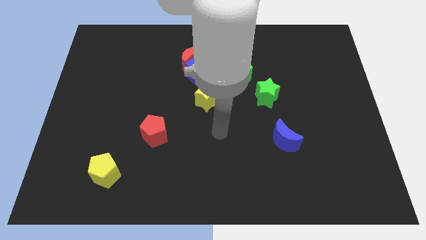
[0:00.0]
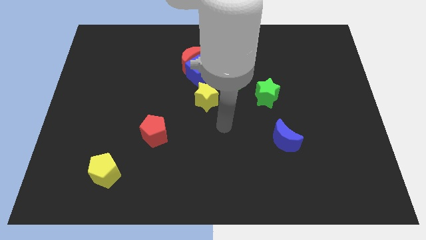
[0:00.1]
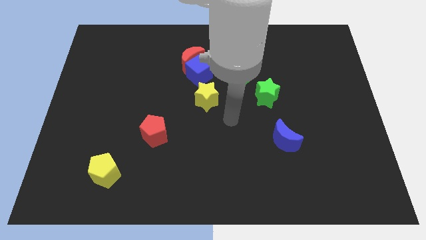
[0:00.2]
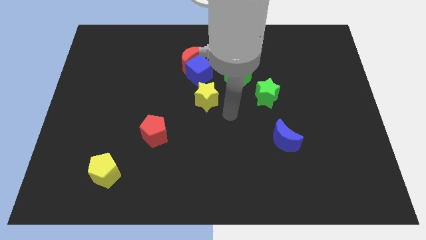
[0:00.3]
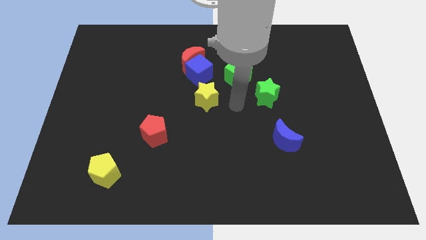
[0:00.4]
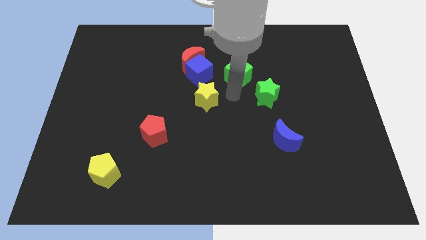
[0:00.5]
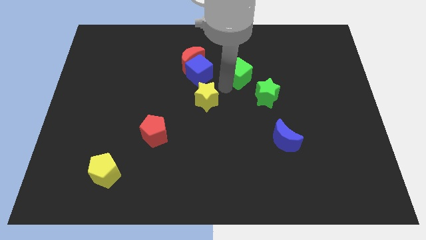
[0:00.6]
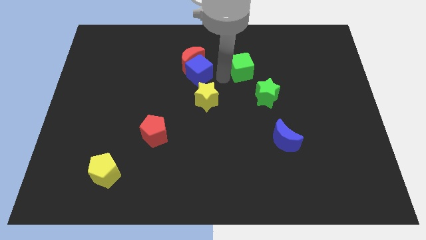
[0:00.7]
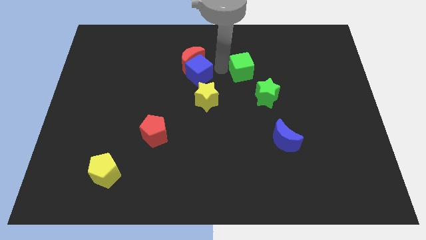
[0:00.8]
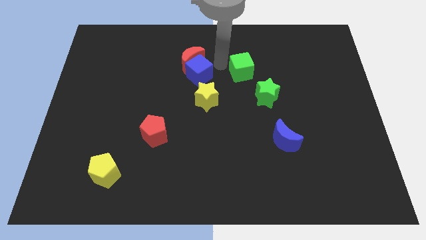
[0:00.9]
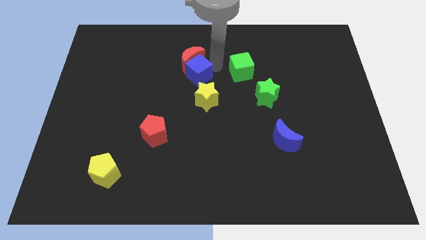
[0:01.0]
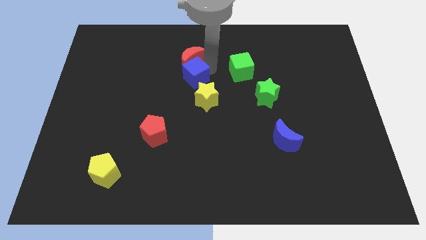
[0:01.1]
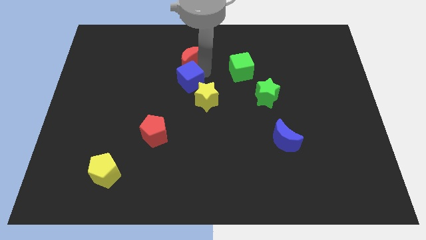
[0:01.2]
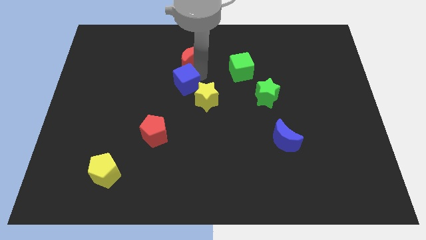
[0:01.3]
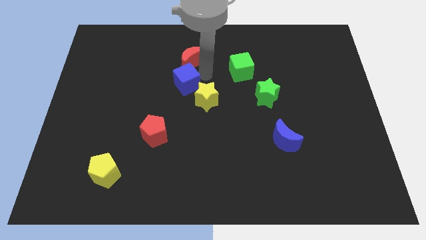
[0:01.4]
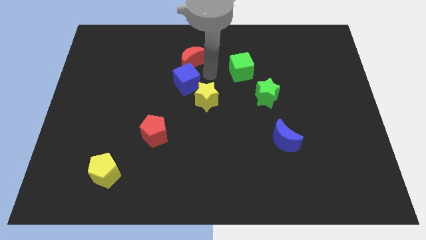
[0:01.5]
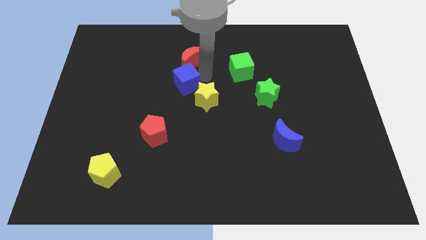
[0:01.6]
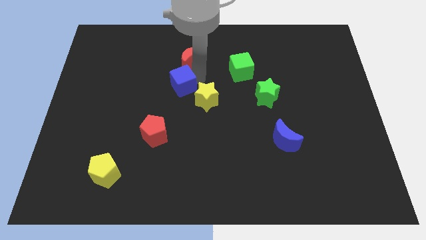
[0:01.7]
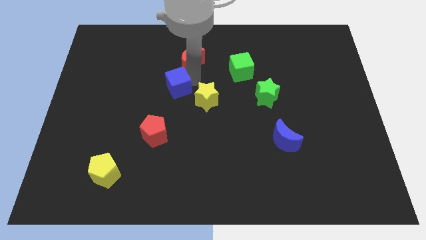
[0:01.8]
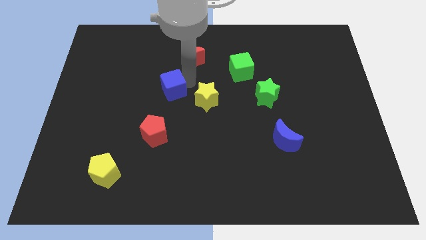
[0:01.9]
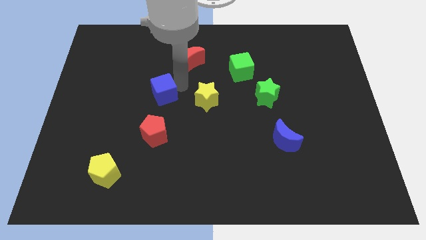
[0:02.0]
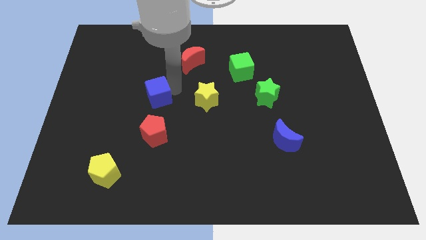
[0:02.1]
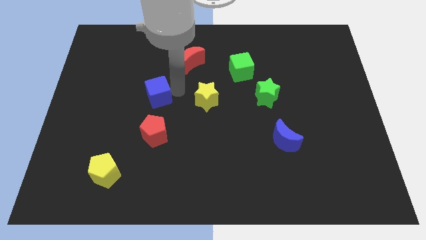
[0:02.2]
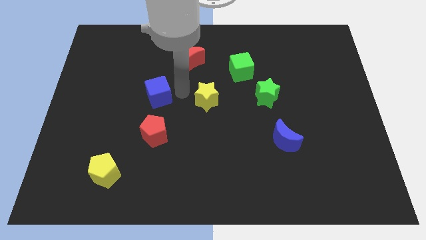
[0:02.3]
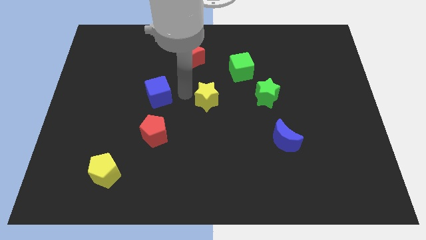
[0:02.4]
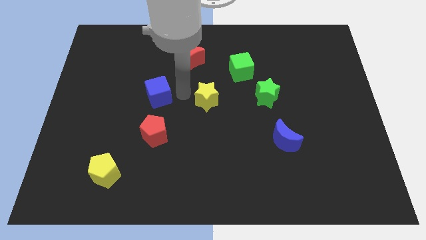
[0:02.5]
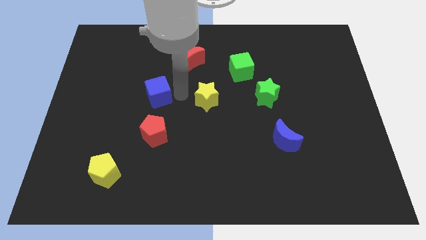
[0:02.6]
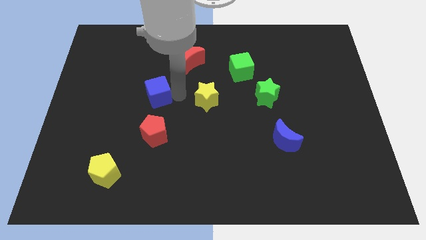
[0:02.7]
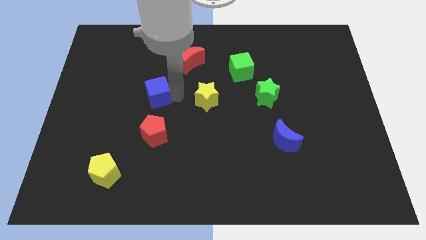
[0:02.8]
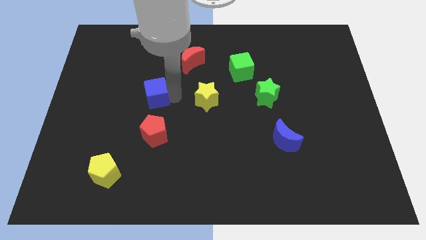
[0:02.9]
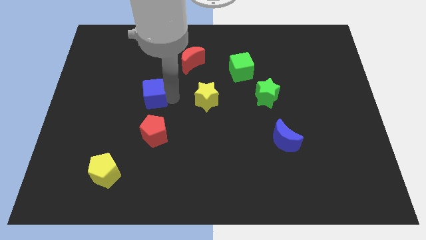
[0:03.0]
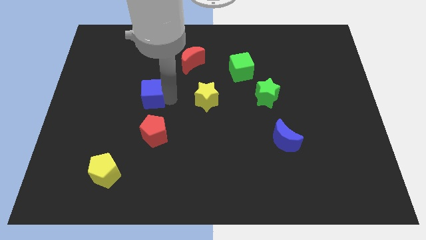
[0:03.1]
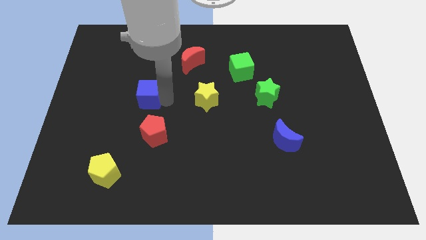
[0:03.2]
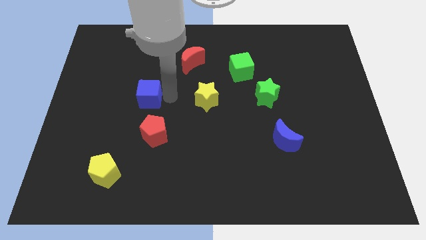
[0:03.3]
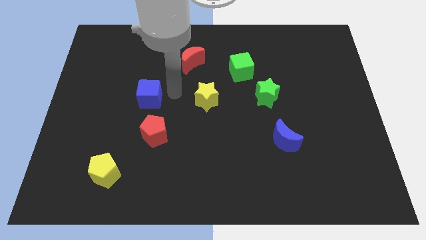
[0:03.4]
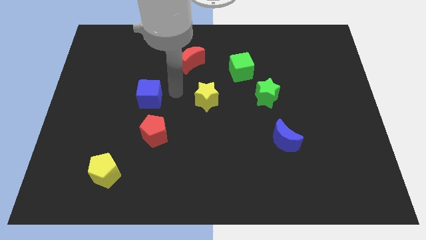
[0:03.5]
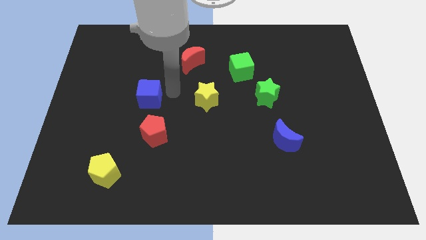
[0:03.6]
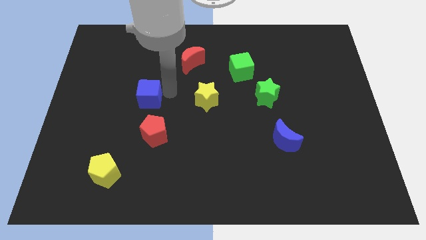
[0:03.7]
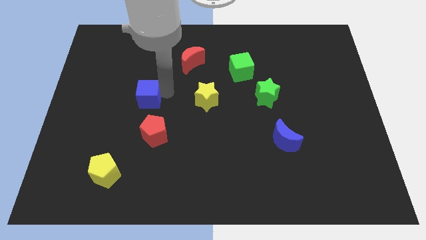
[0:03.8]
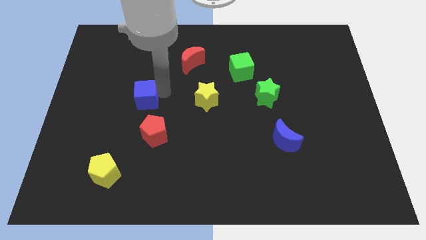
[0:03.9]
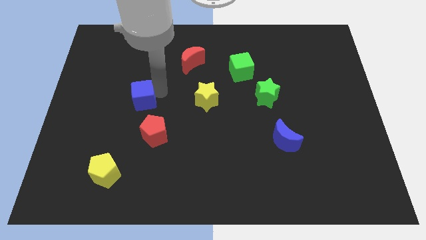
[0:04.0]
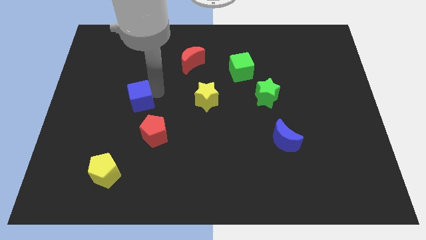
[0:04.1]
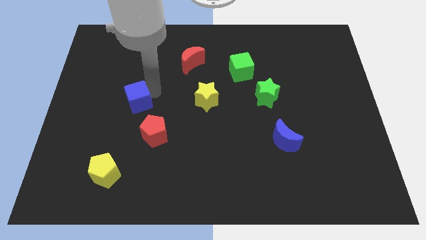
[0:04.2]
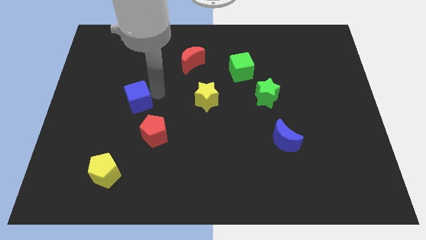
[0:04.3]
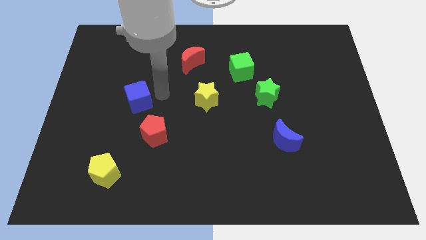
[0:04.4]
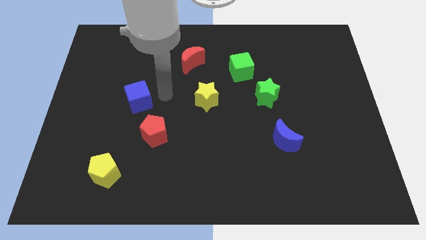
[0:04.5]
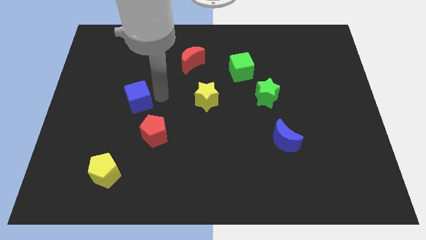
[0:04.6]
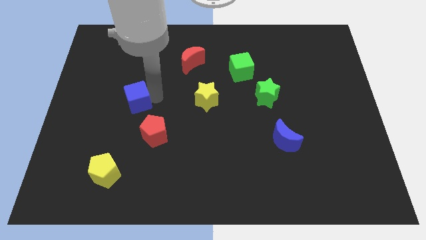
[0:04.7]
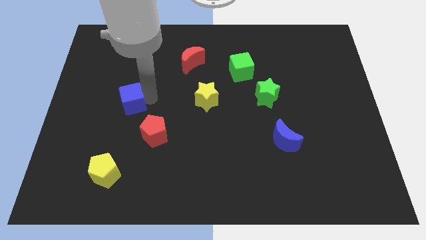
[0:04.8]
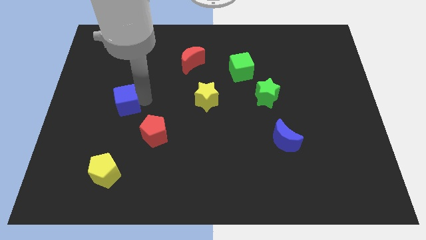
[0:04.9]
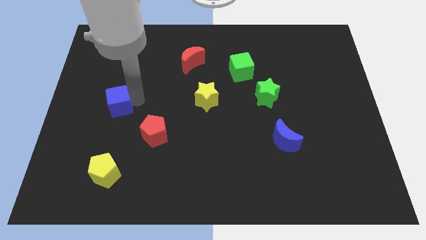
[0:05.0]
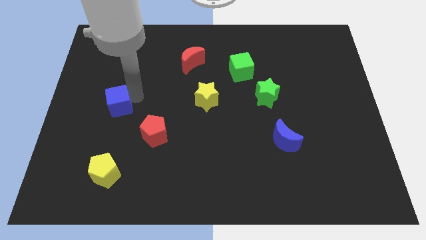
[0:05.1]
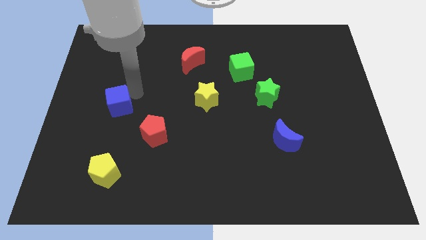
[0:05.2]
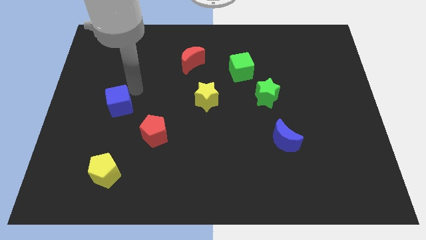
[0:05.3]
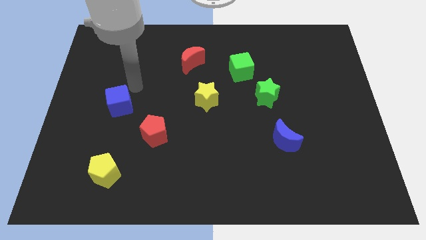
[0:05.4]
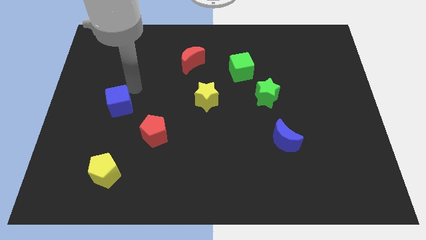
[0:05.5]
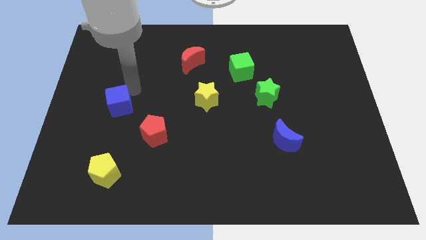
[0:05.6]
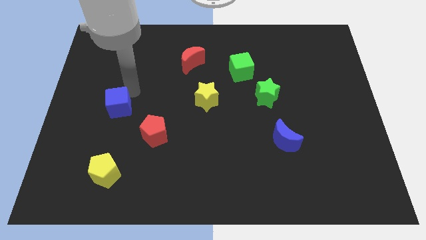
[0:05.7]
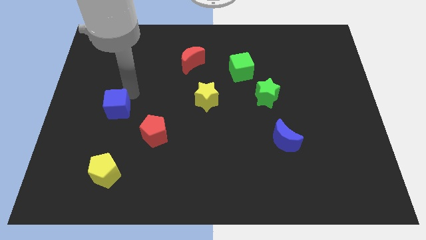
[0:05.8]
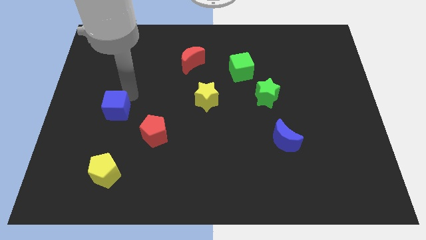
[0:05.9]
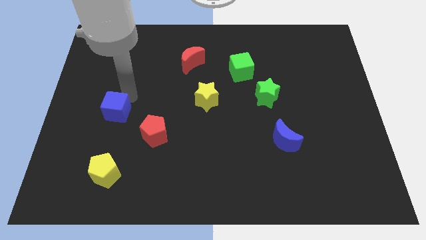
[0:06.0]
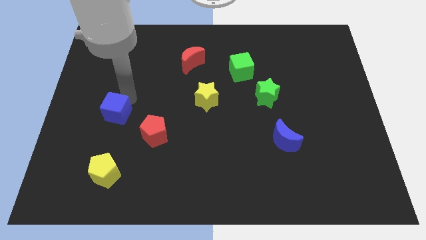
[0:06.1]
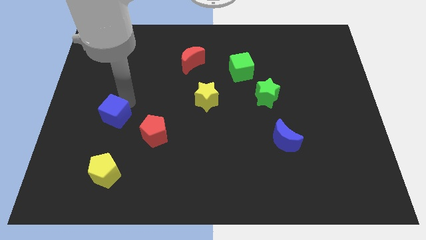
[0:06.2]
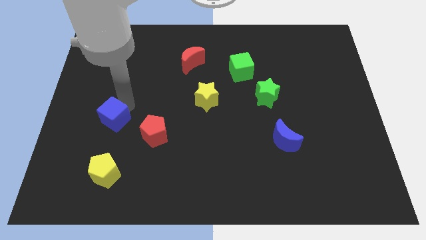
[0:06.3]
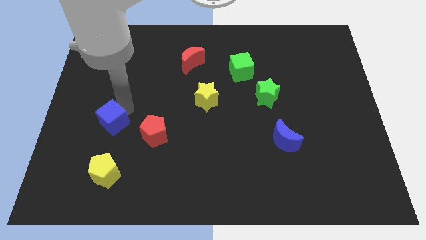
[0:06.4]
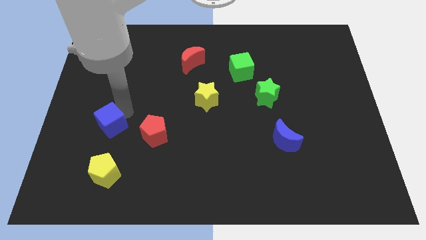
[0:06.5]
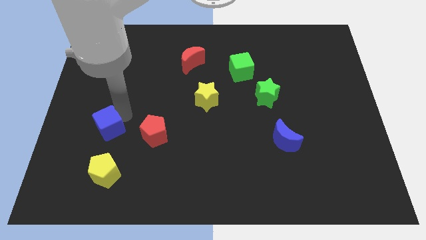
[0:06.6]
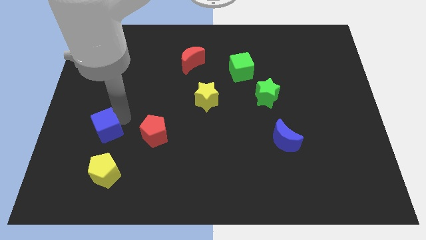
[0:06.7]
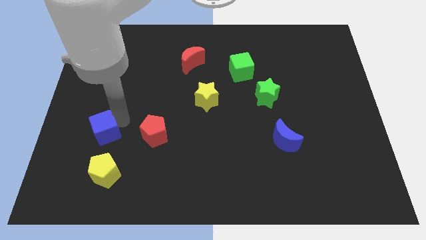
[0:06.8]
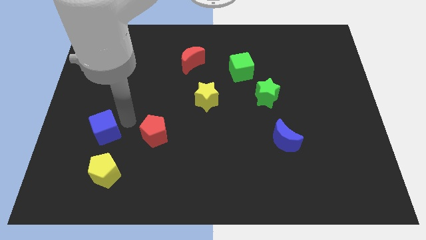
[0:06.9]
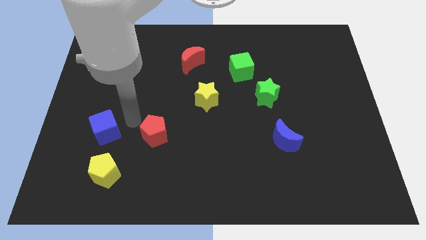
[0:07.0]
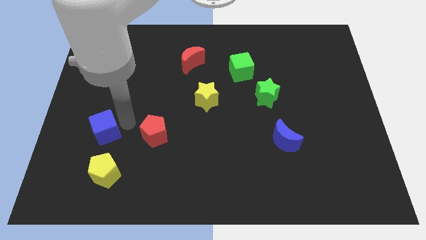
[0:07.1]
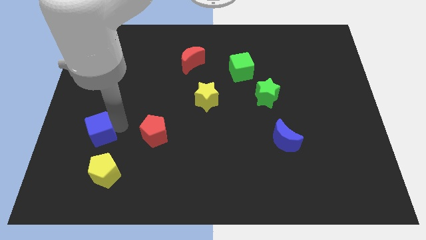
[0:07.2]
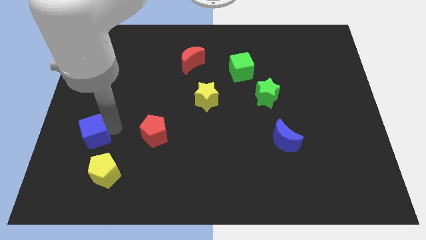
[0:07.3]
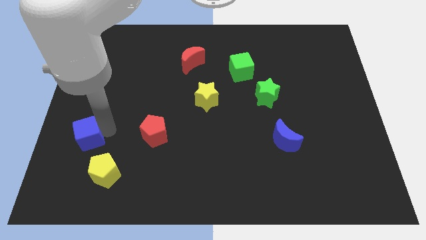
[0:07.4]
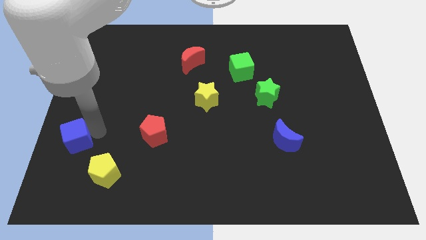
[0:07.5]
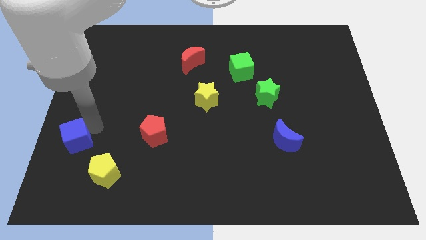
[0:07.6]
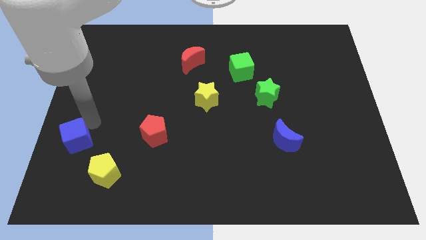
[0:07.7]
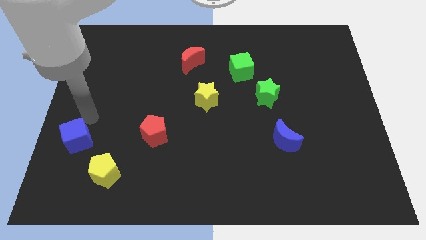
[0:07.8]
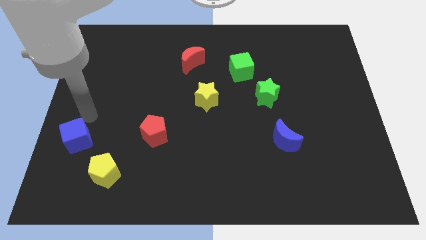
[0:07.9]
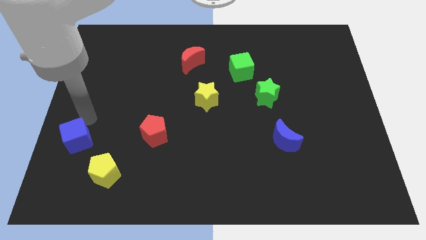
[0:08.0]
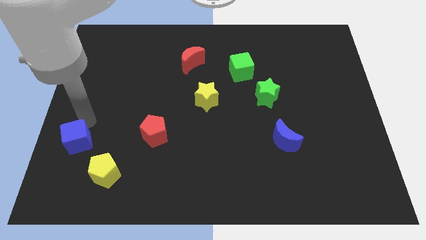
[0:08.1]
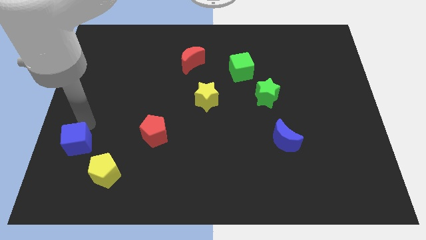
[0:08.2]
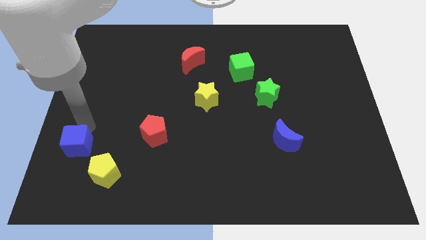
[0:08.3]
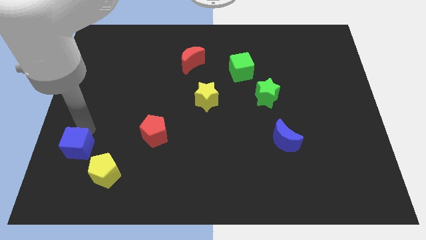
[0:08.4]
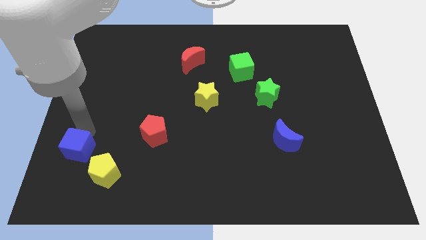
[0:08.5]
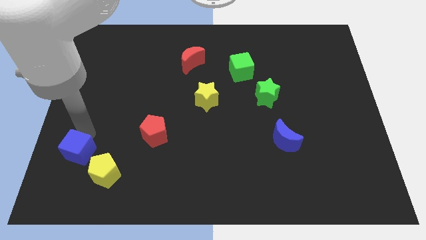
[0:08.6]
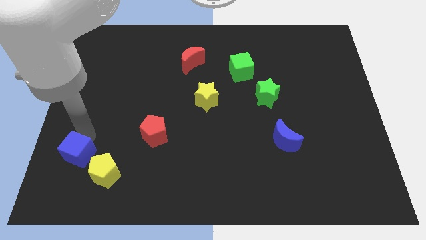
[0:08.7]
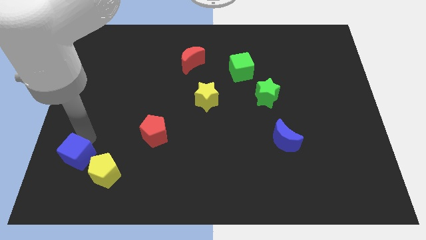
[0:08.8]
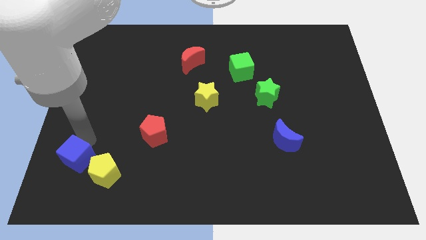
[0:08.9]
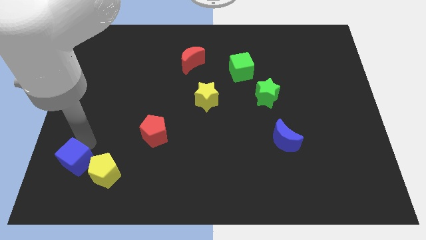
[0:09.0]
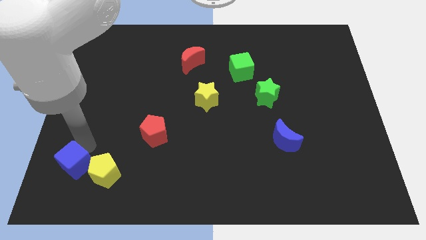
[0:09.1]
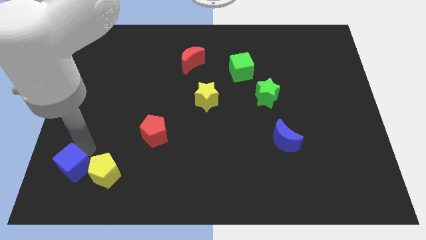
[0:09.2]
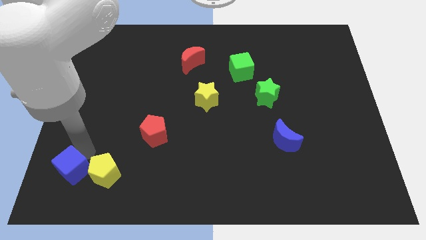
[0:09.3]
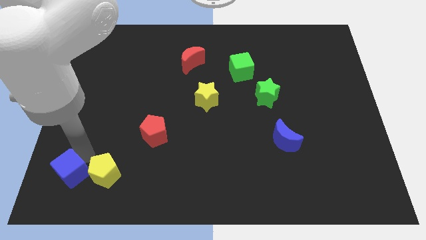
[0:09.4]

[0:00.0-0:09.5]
slide the blue cube to the bottom left of the board
